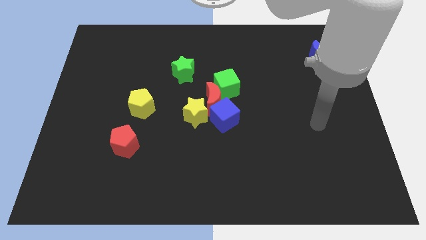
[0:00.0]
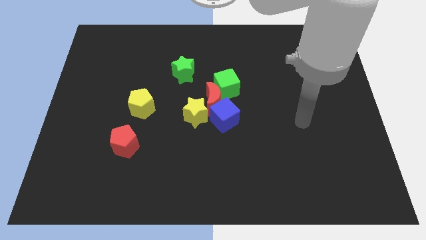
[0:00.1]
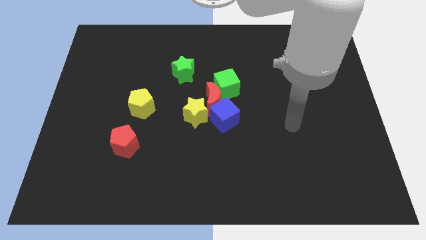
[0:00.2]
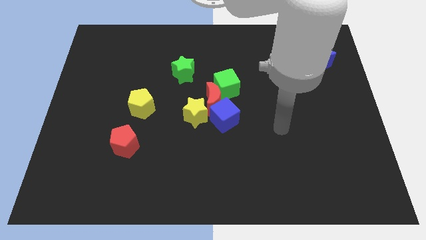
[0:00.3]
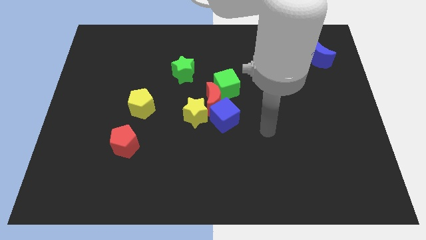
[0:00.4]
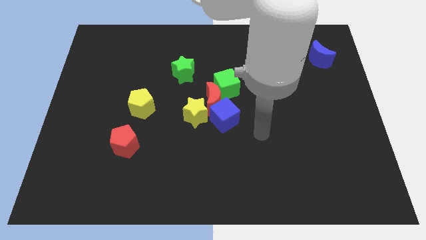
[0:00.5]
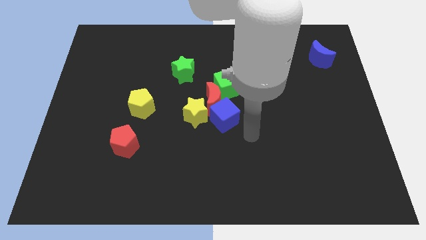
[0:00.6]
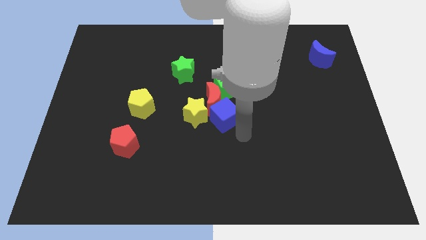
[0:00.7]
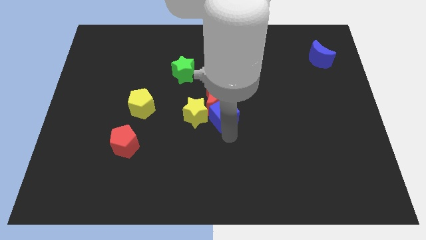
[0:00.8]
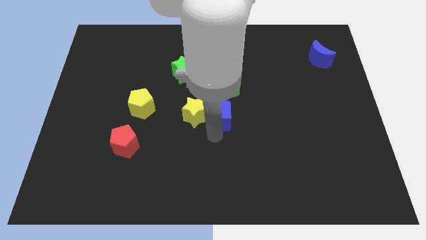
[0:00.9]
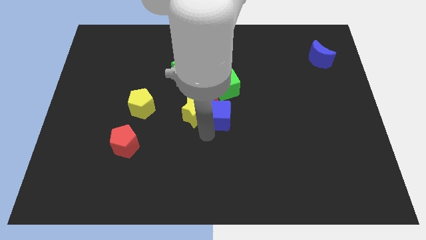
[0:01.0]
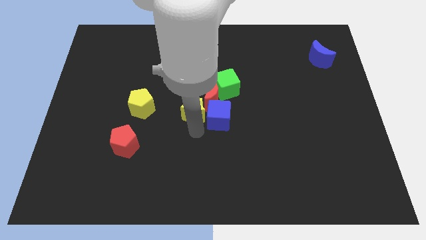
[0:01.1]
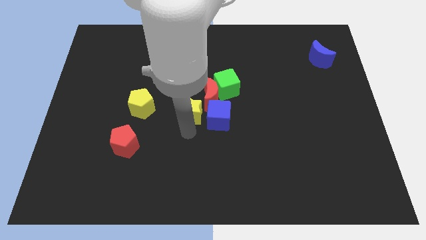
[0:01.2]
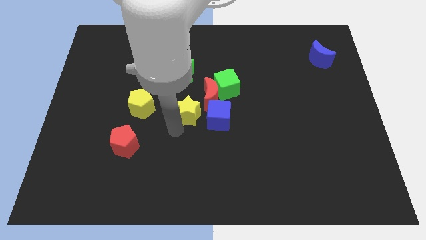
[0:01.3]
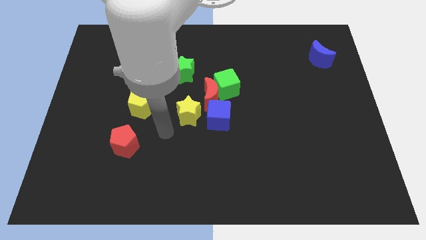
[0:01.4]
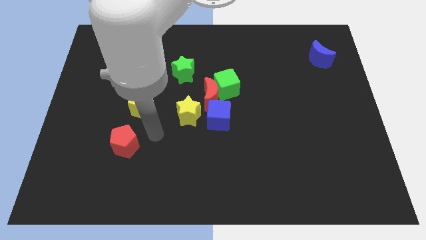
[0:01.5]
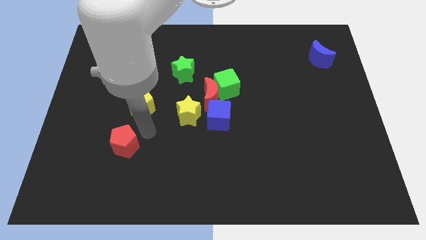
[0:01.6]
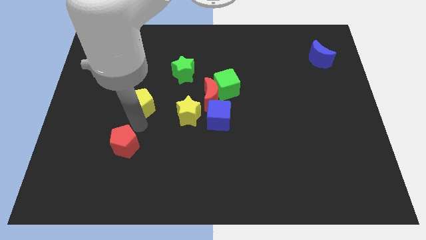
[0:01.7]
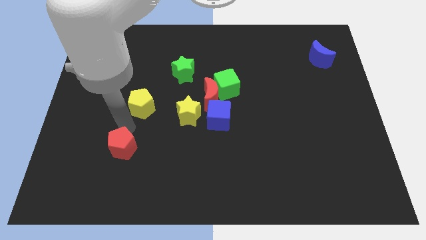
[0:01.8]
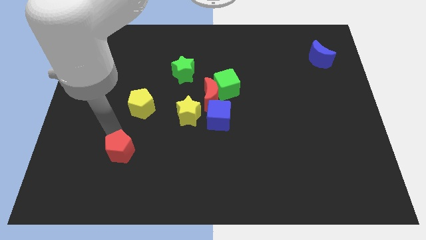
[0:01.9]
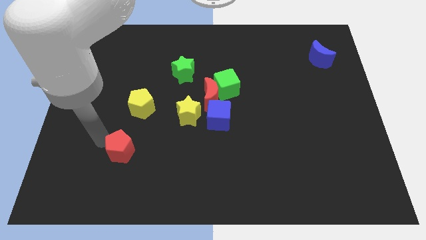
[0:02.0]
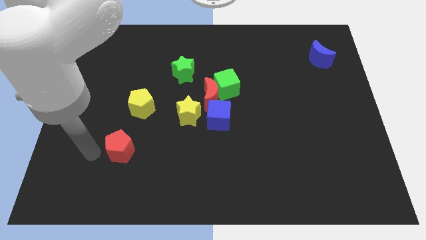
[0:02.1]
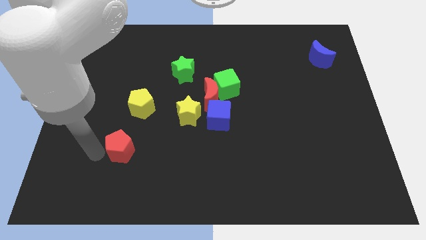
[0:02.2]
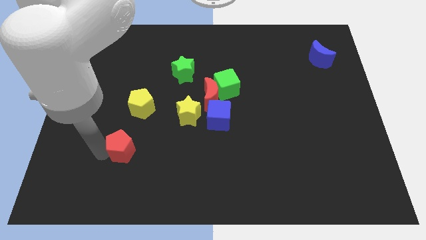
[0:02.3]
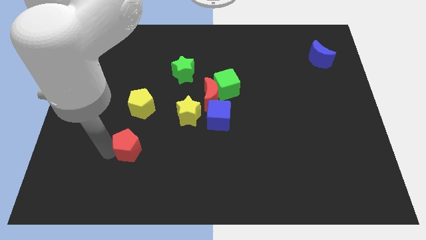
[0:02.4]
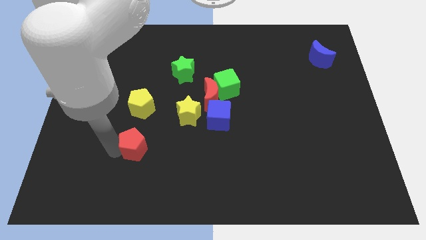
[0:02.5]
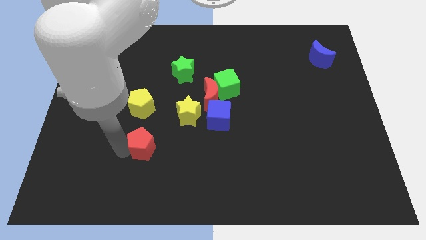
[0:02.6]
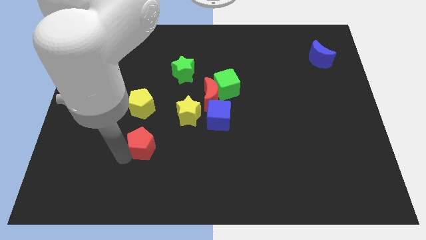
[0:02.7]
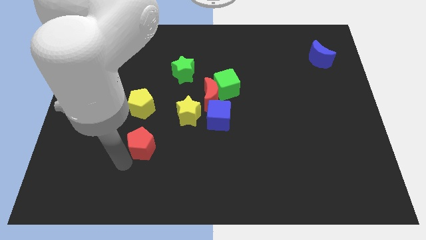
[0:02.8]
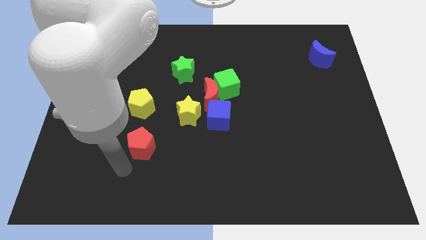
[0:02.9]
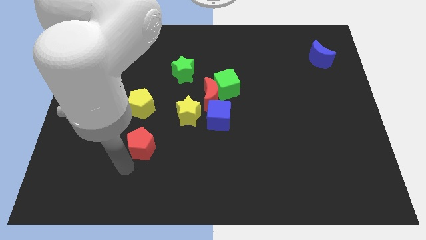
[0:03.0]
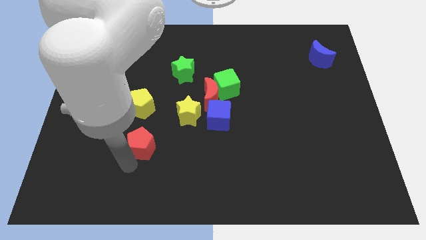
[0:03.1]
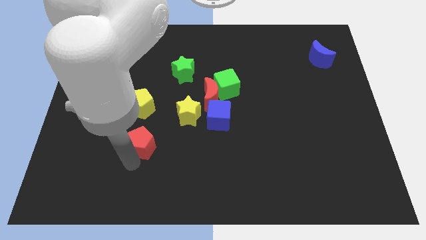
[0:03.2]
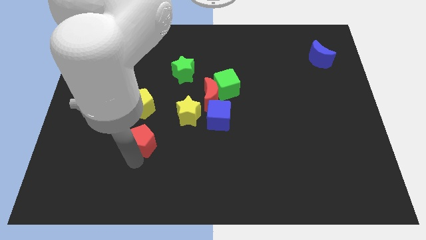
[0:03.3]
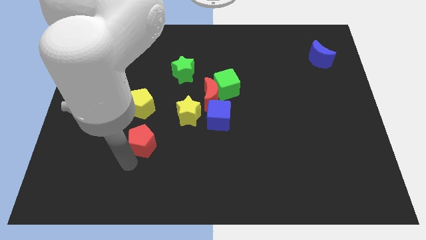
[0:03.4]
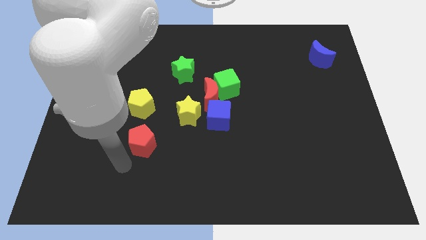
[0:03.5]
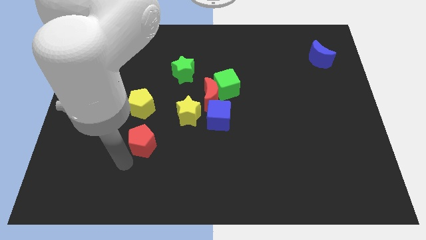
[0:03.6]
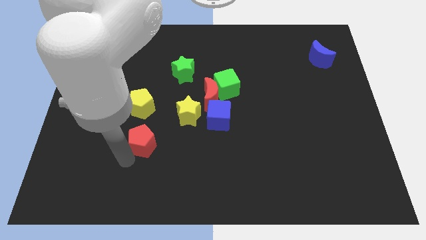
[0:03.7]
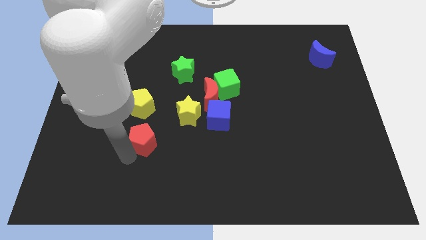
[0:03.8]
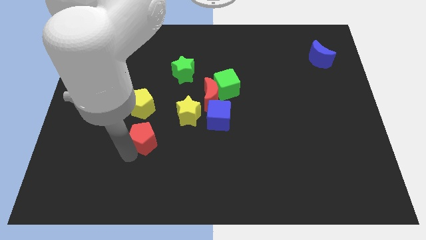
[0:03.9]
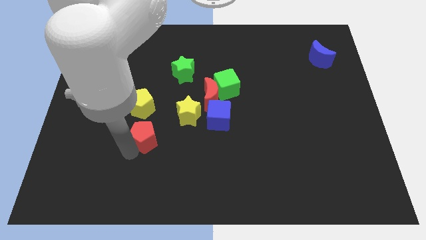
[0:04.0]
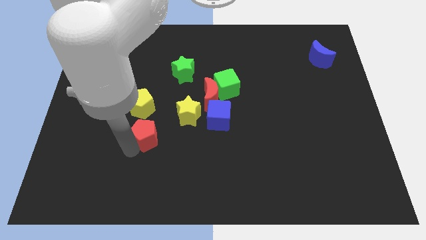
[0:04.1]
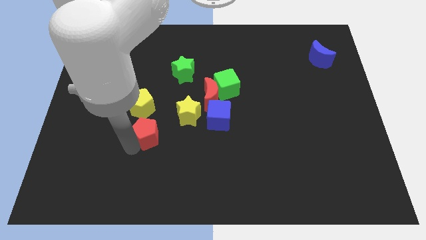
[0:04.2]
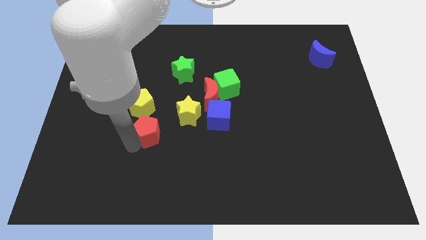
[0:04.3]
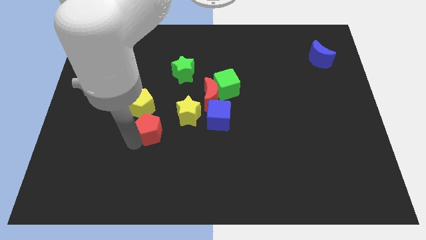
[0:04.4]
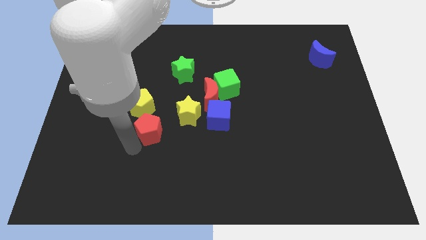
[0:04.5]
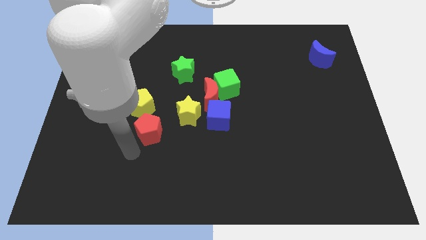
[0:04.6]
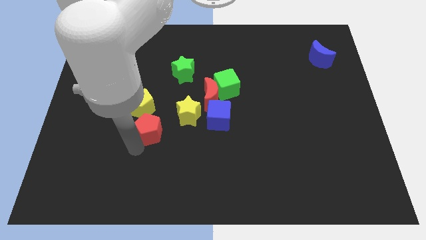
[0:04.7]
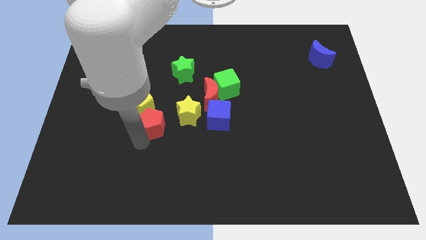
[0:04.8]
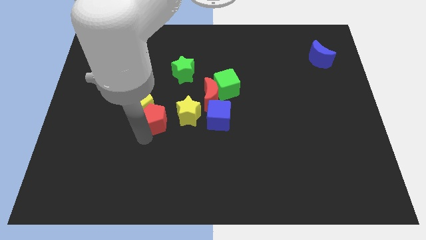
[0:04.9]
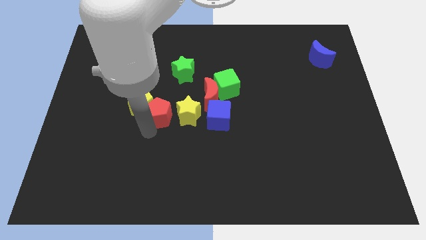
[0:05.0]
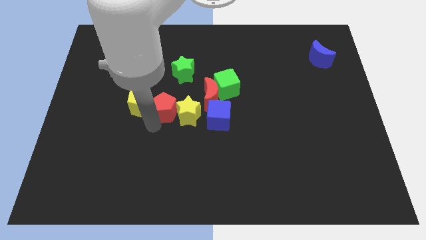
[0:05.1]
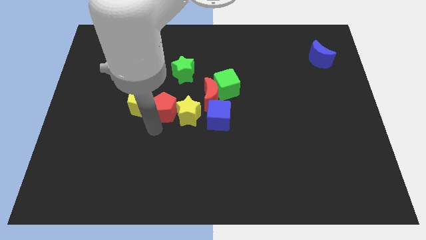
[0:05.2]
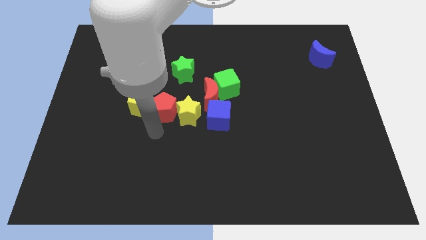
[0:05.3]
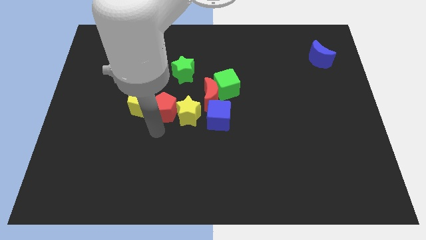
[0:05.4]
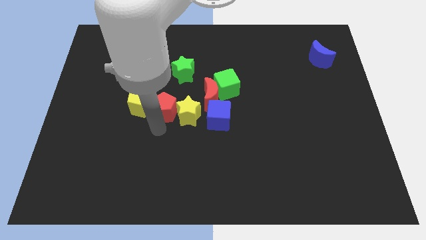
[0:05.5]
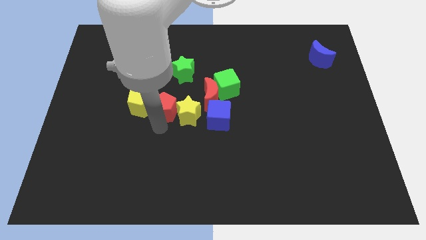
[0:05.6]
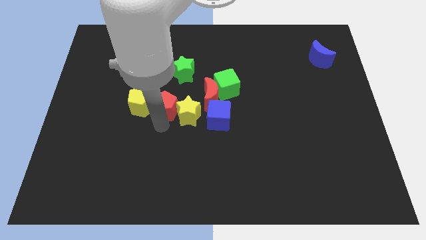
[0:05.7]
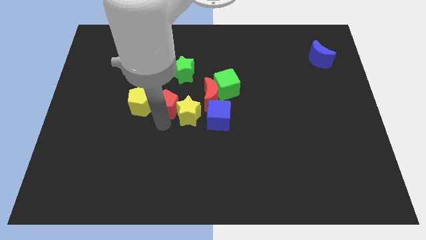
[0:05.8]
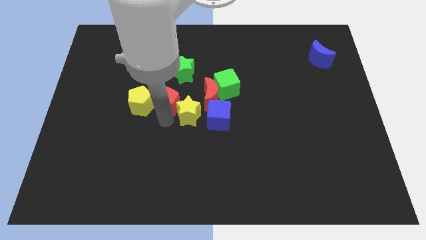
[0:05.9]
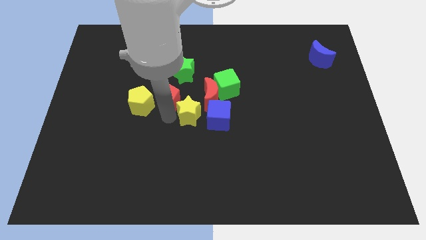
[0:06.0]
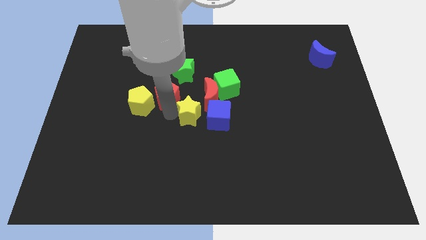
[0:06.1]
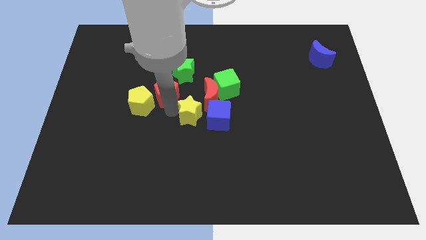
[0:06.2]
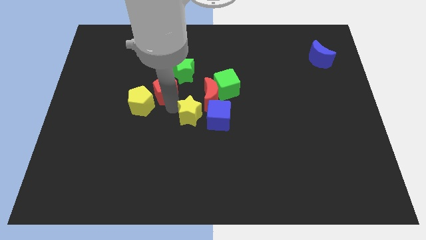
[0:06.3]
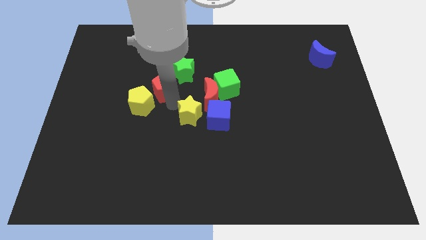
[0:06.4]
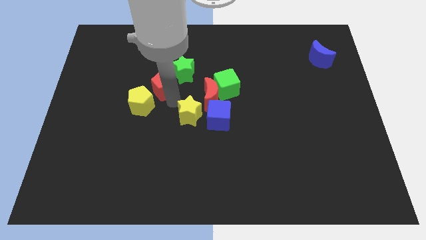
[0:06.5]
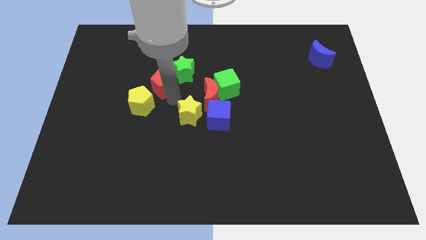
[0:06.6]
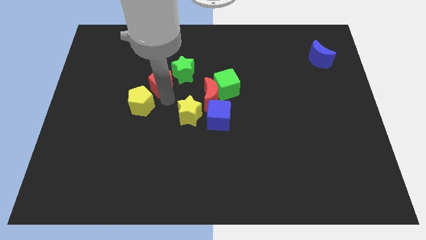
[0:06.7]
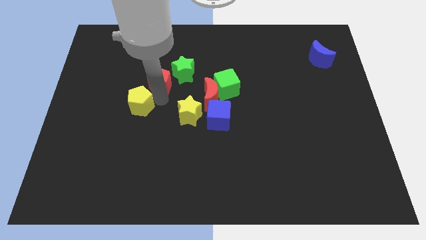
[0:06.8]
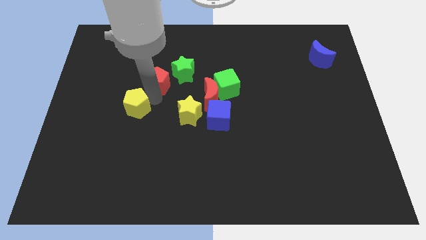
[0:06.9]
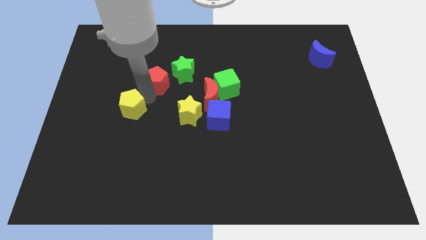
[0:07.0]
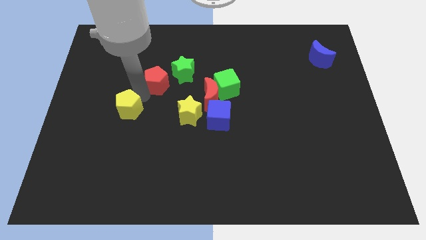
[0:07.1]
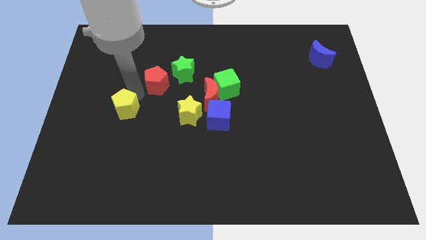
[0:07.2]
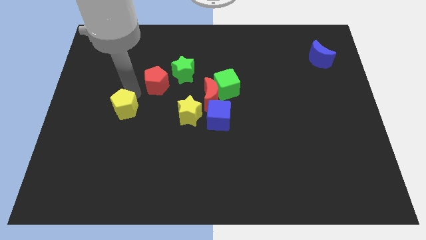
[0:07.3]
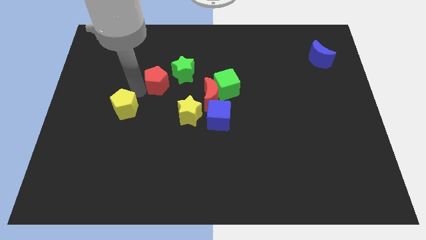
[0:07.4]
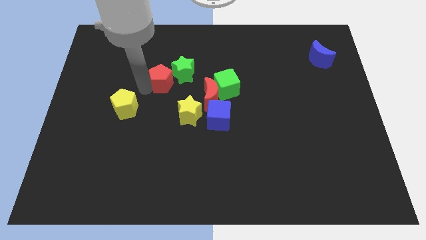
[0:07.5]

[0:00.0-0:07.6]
push the red pentagon to the green star
